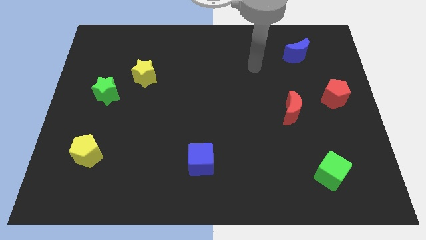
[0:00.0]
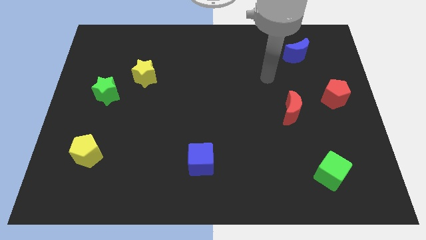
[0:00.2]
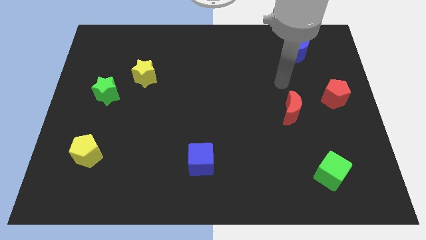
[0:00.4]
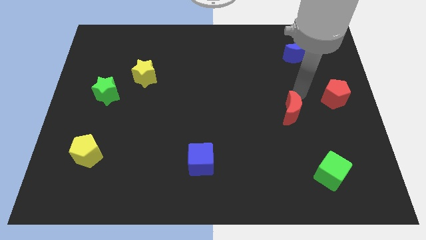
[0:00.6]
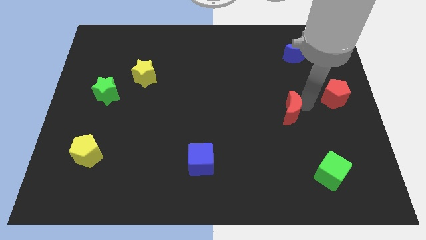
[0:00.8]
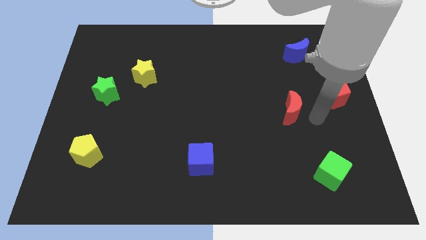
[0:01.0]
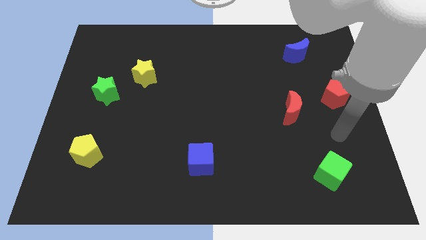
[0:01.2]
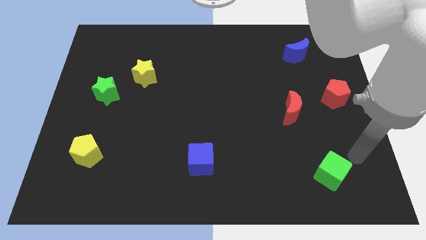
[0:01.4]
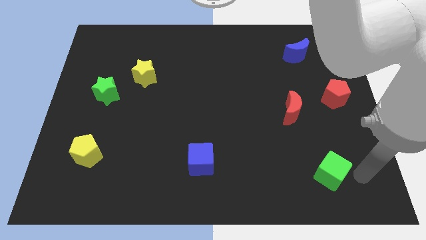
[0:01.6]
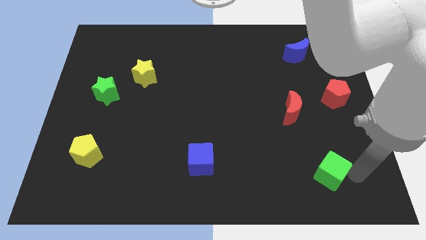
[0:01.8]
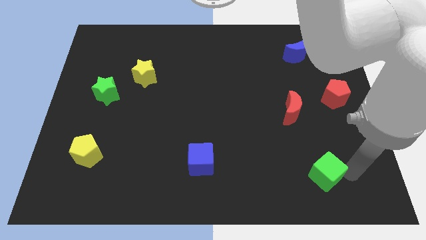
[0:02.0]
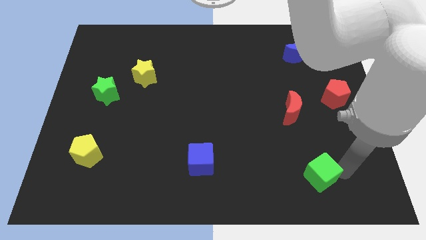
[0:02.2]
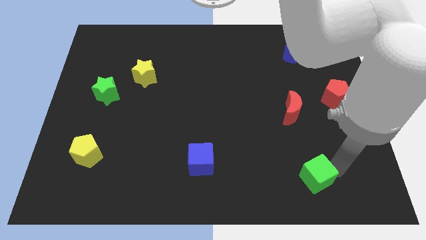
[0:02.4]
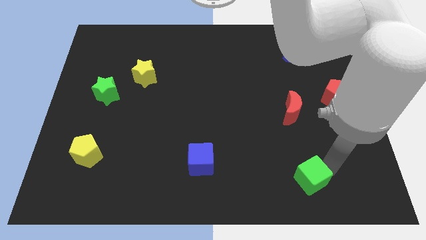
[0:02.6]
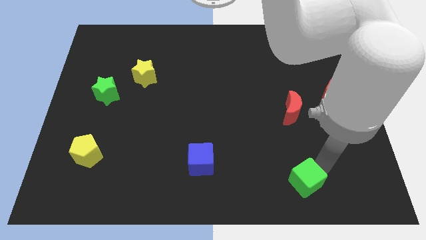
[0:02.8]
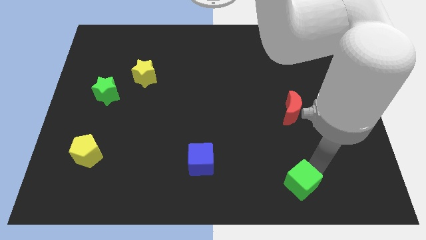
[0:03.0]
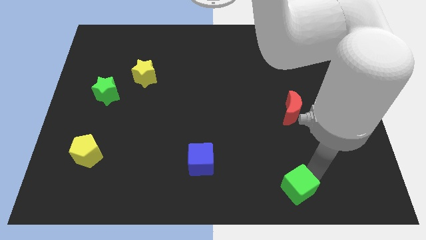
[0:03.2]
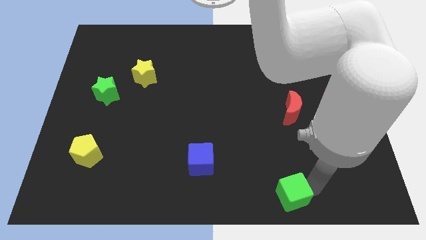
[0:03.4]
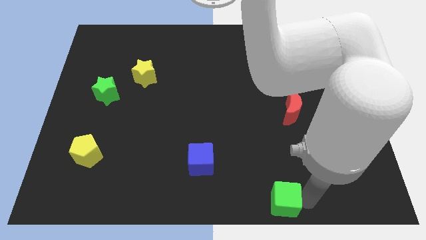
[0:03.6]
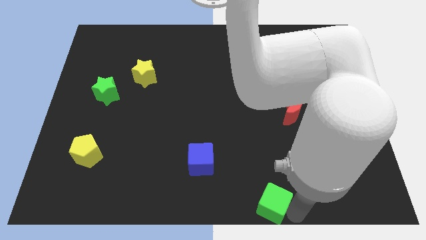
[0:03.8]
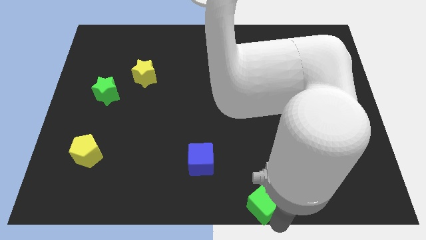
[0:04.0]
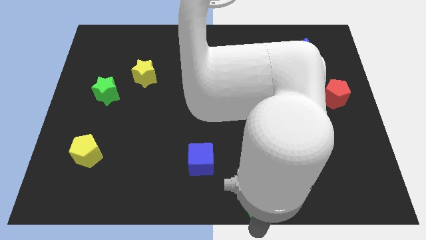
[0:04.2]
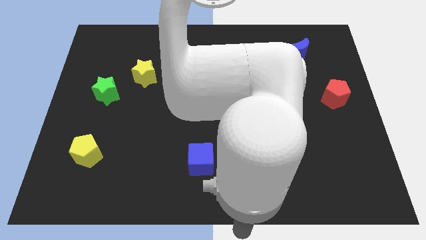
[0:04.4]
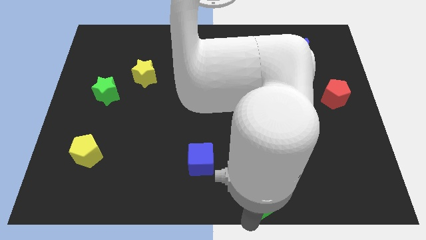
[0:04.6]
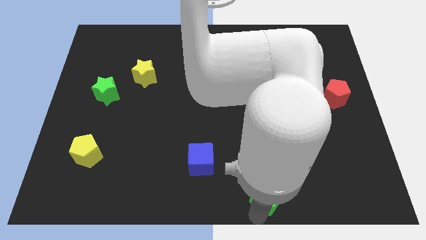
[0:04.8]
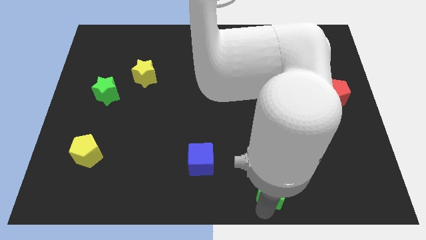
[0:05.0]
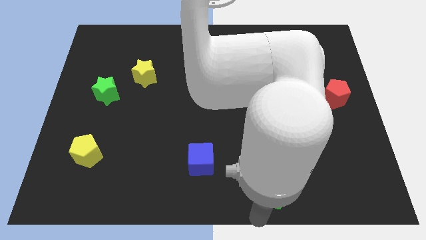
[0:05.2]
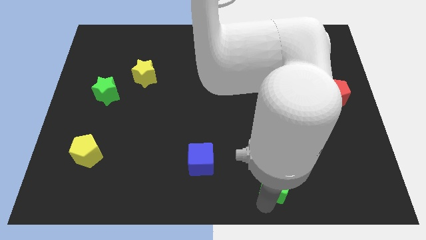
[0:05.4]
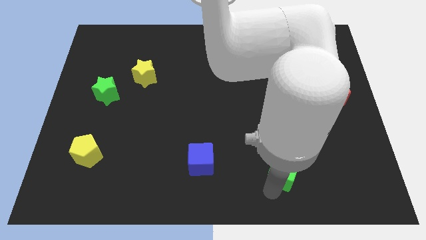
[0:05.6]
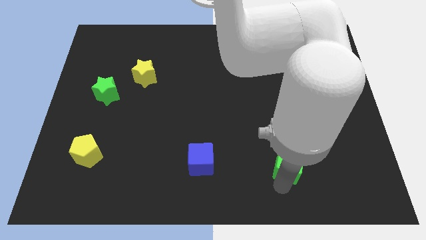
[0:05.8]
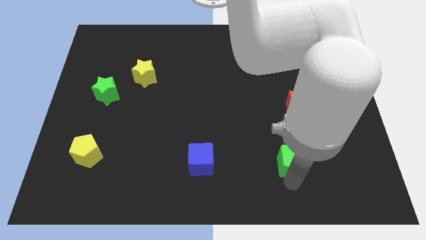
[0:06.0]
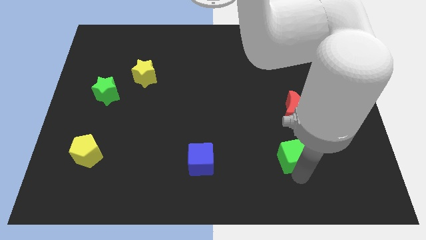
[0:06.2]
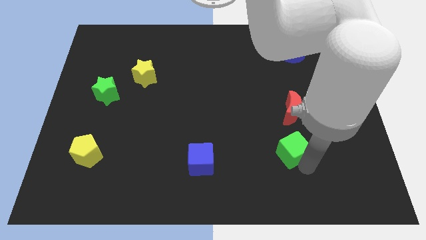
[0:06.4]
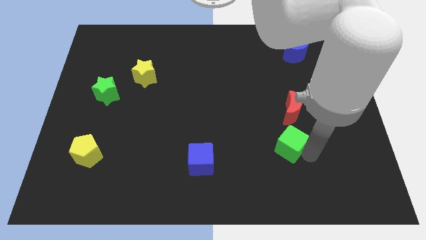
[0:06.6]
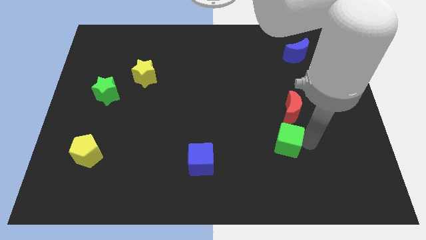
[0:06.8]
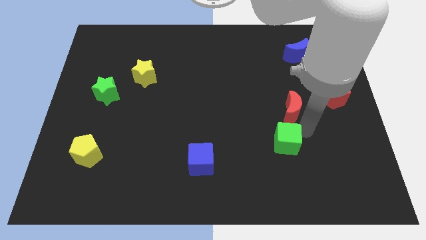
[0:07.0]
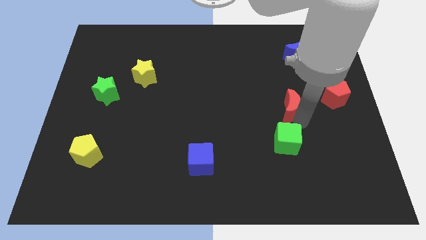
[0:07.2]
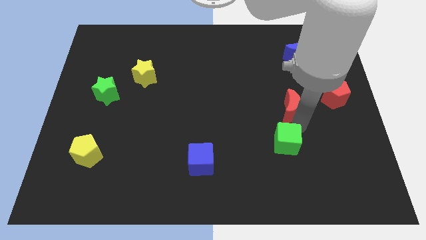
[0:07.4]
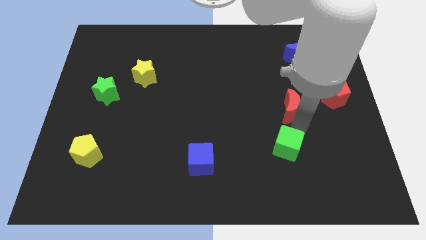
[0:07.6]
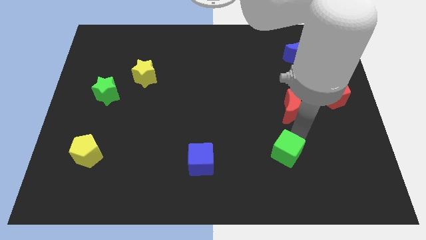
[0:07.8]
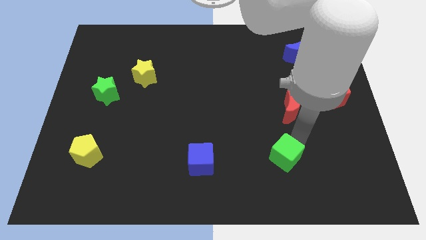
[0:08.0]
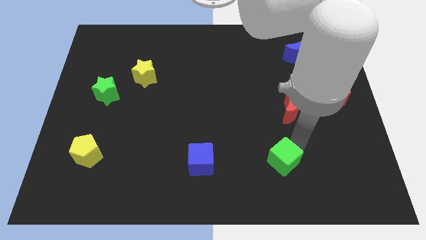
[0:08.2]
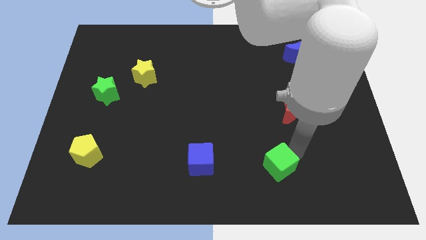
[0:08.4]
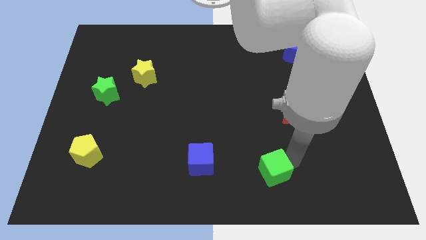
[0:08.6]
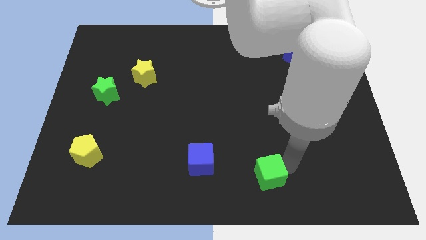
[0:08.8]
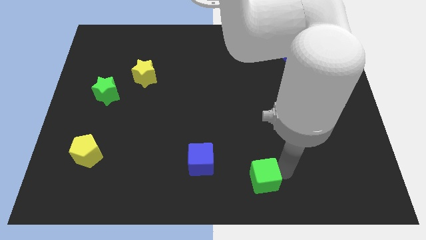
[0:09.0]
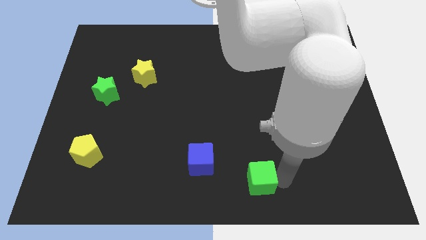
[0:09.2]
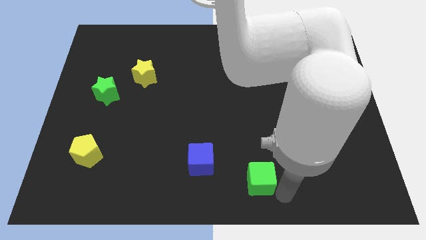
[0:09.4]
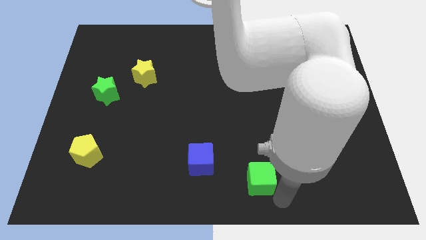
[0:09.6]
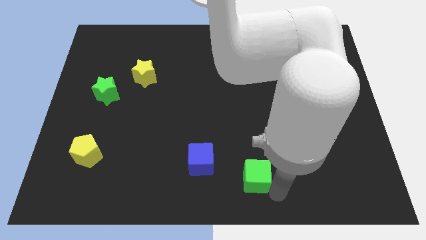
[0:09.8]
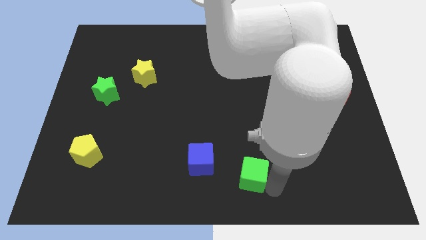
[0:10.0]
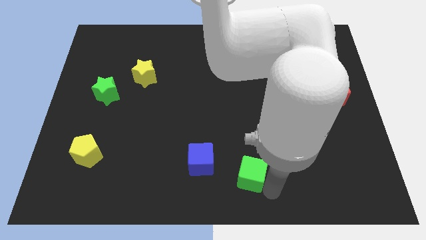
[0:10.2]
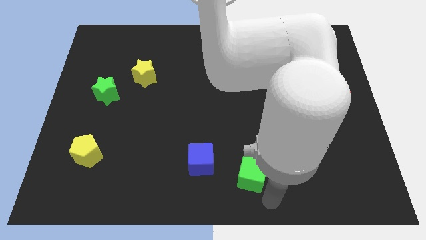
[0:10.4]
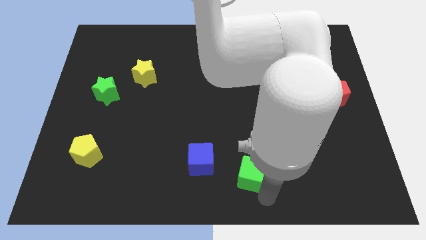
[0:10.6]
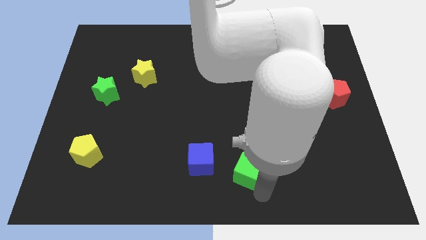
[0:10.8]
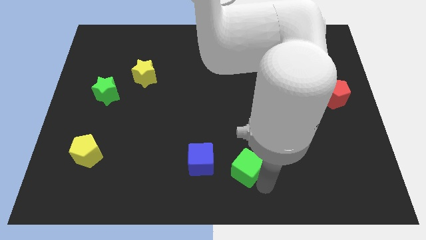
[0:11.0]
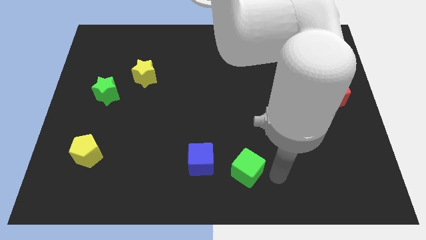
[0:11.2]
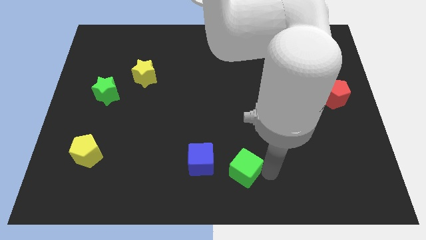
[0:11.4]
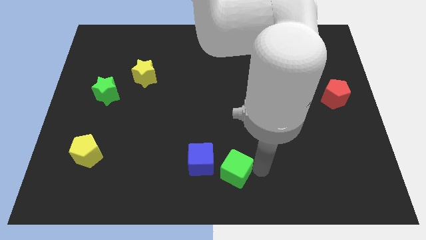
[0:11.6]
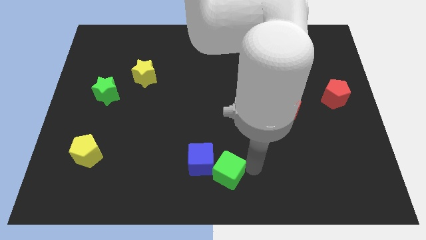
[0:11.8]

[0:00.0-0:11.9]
slide the green cube close to the blue cube

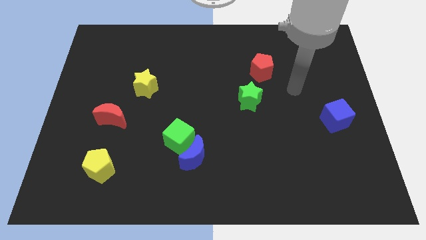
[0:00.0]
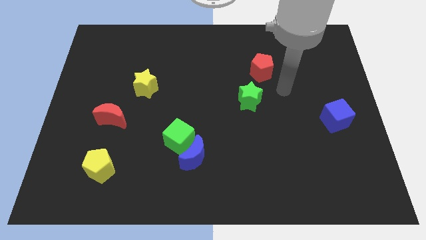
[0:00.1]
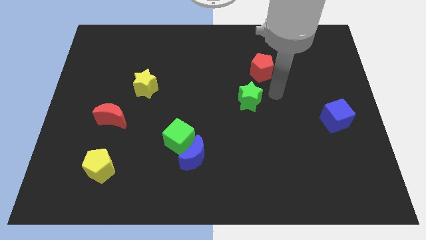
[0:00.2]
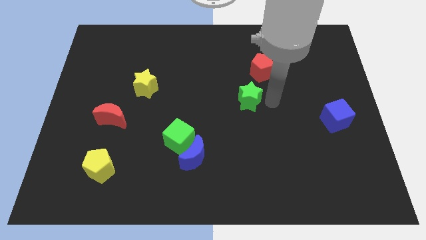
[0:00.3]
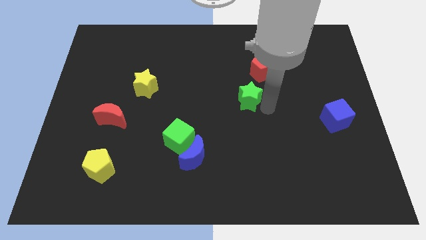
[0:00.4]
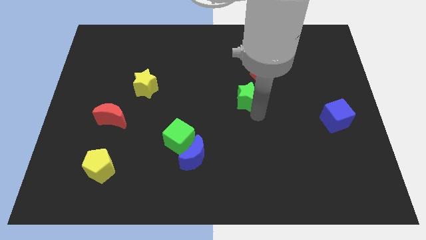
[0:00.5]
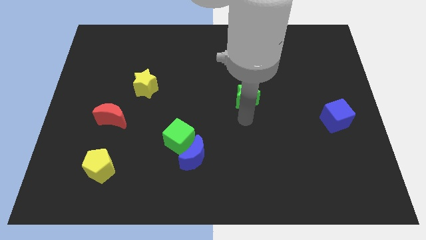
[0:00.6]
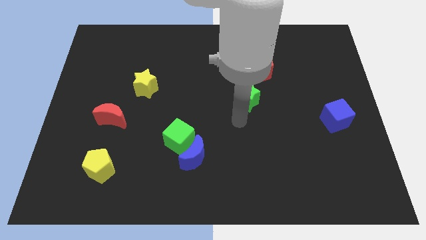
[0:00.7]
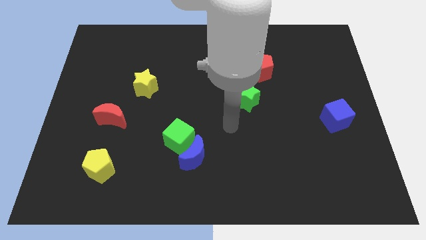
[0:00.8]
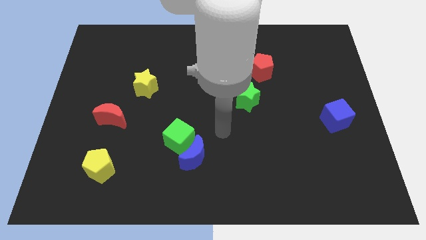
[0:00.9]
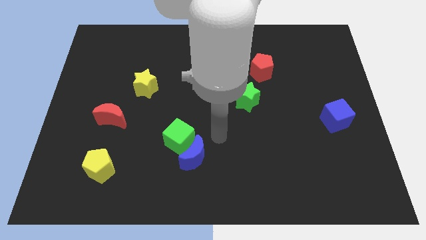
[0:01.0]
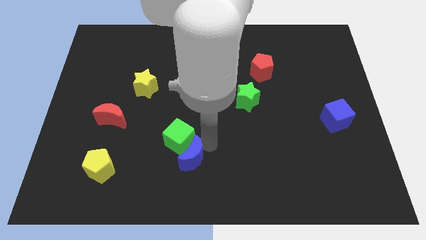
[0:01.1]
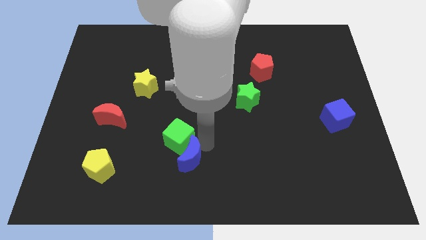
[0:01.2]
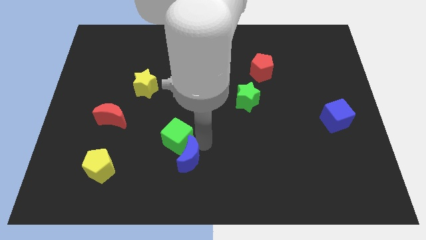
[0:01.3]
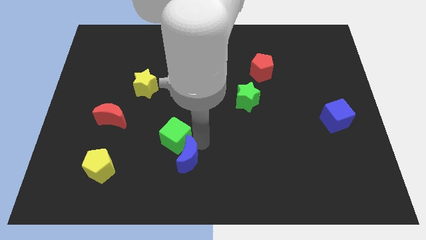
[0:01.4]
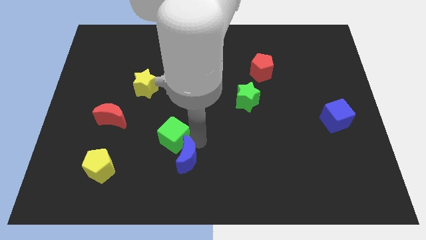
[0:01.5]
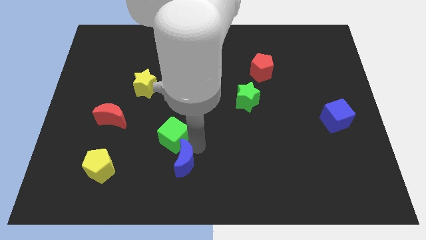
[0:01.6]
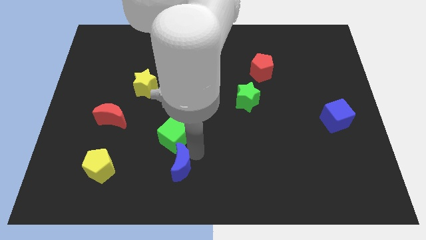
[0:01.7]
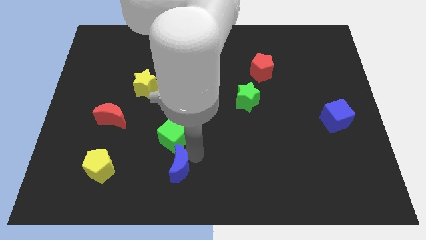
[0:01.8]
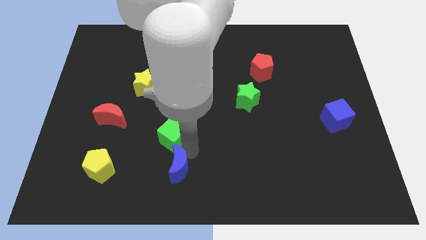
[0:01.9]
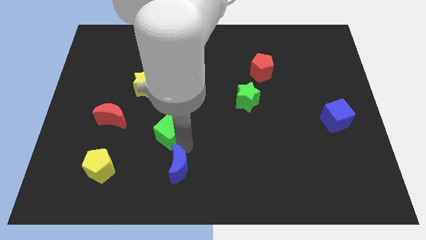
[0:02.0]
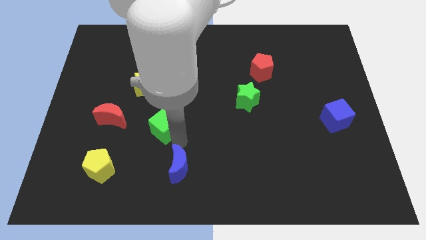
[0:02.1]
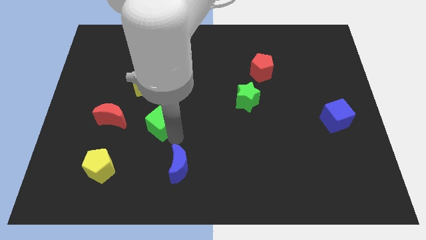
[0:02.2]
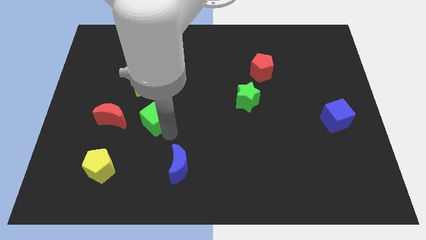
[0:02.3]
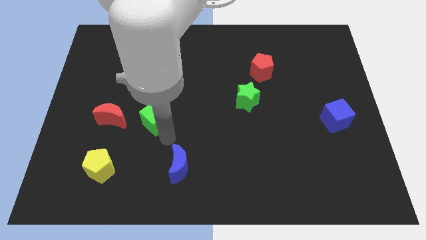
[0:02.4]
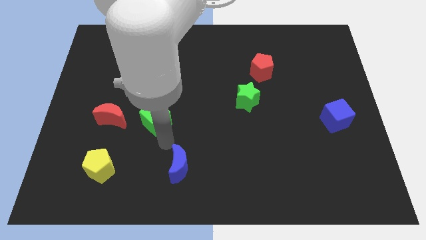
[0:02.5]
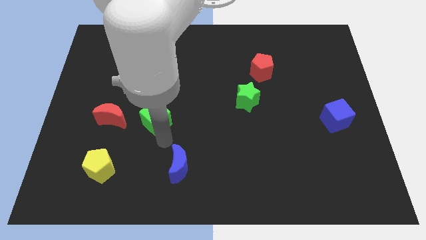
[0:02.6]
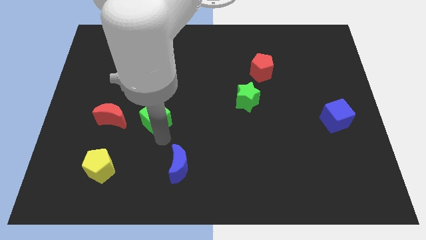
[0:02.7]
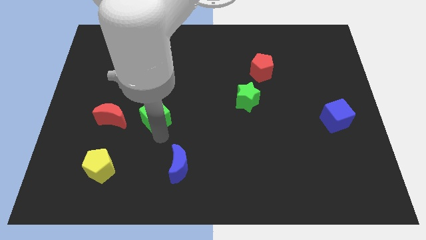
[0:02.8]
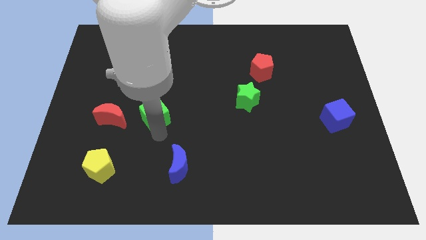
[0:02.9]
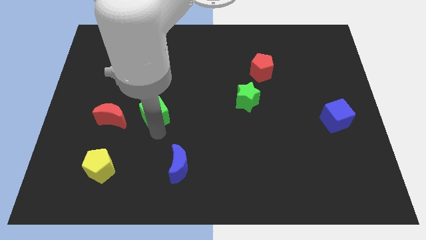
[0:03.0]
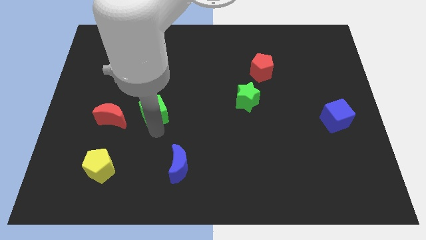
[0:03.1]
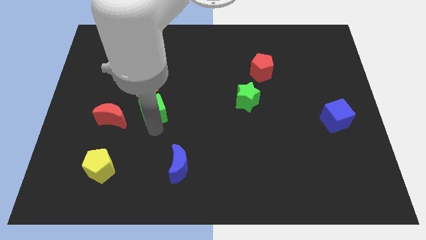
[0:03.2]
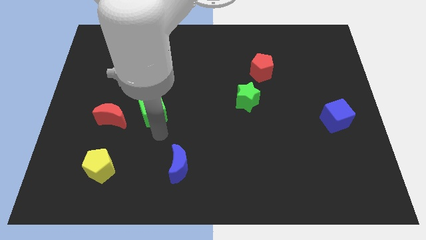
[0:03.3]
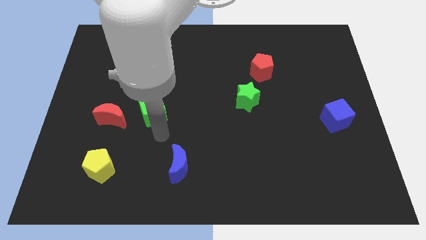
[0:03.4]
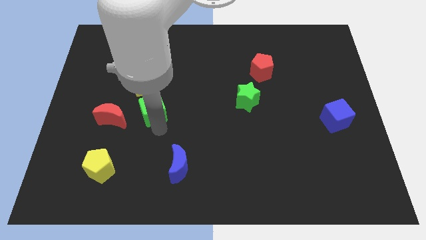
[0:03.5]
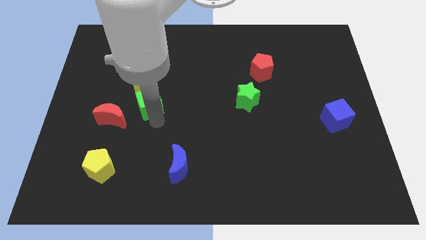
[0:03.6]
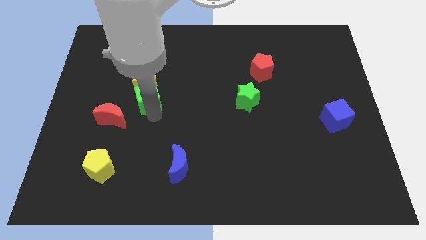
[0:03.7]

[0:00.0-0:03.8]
slide the green cube close to the yellow star
